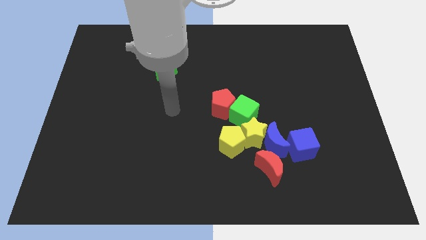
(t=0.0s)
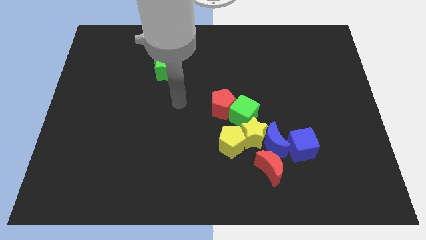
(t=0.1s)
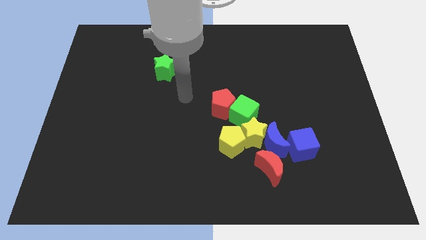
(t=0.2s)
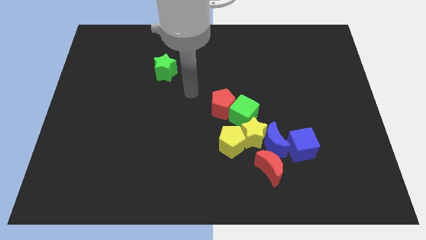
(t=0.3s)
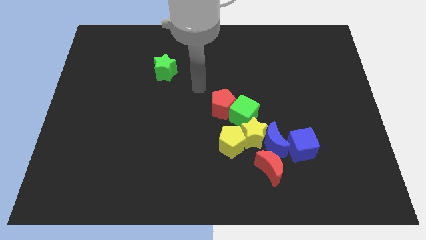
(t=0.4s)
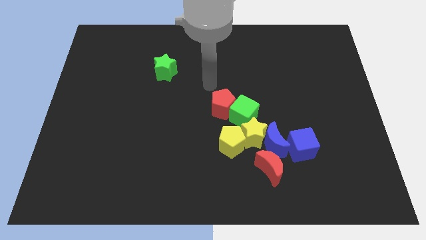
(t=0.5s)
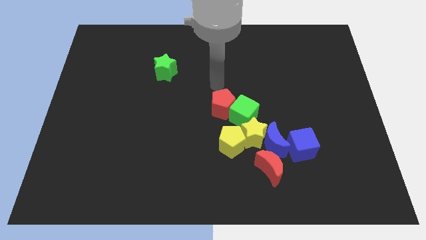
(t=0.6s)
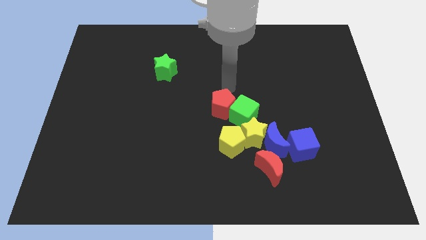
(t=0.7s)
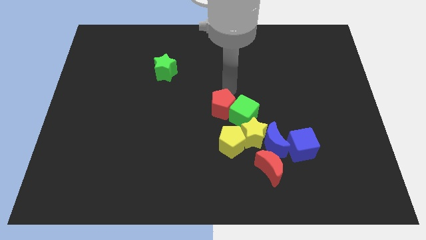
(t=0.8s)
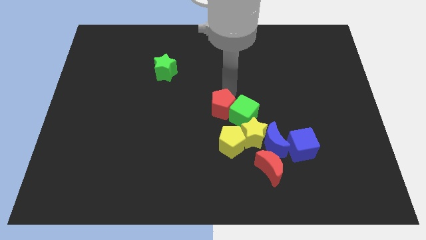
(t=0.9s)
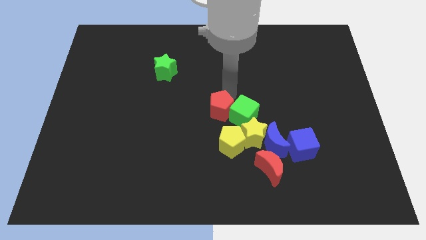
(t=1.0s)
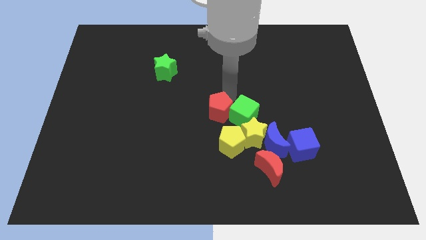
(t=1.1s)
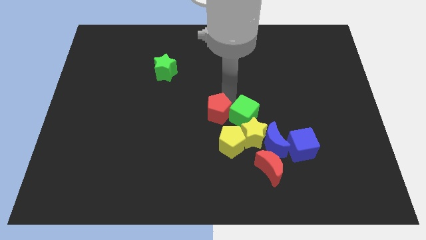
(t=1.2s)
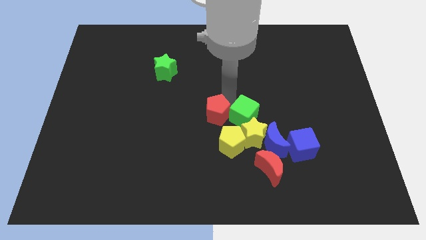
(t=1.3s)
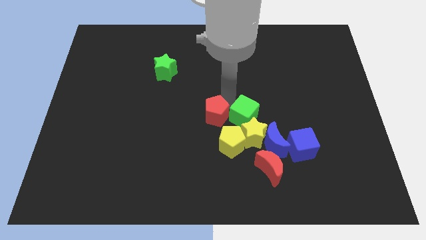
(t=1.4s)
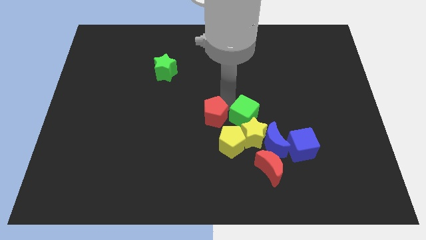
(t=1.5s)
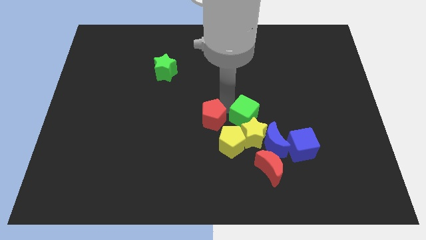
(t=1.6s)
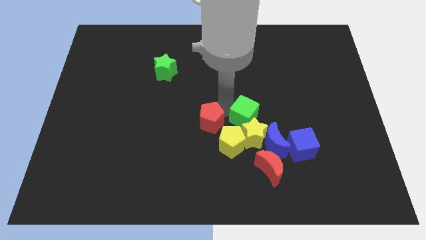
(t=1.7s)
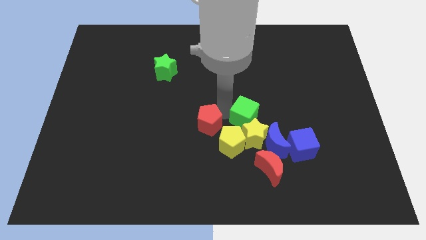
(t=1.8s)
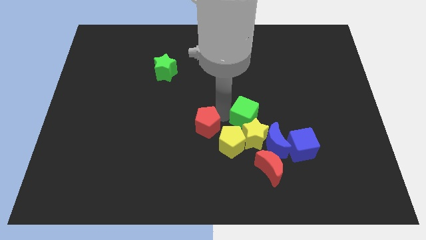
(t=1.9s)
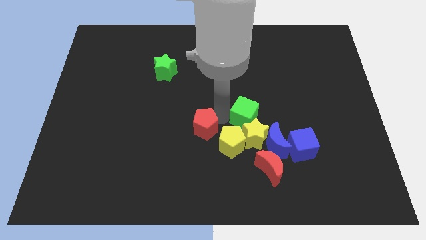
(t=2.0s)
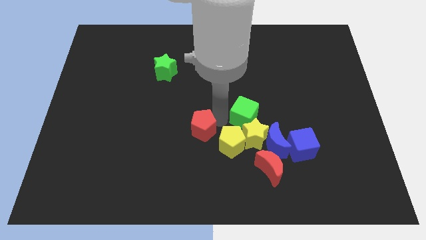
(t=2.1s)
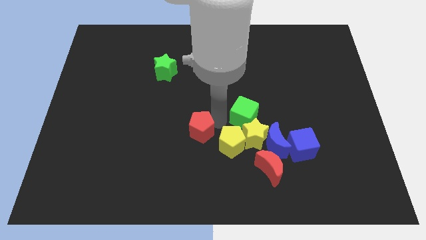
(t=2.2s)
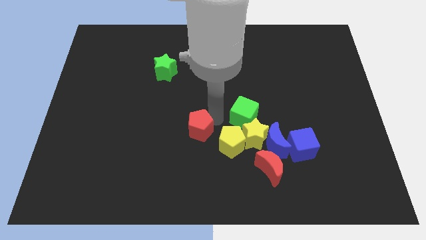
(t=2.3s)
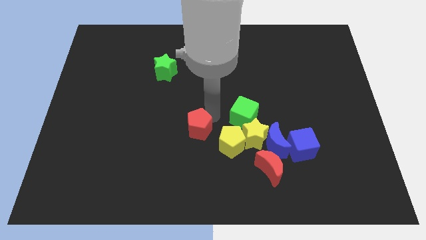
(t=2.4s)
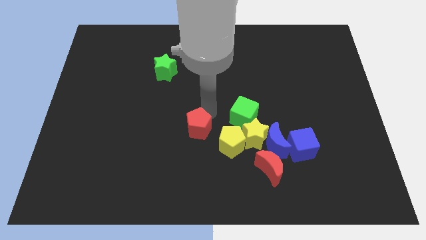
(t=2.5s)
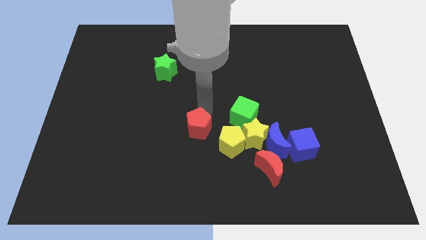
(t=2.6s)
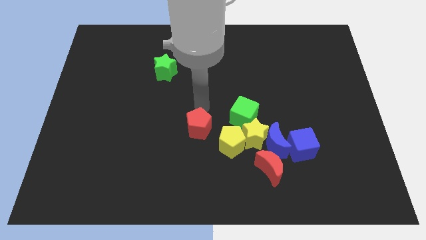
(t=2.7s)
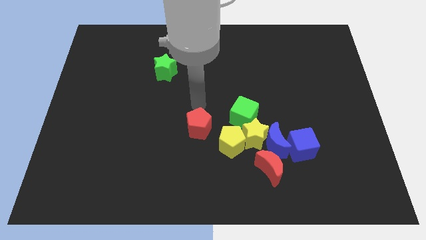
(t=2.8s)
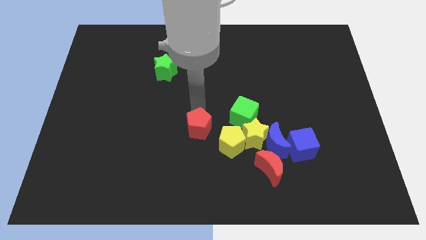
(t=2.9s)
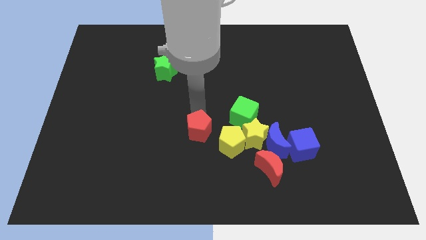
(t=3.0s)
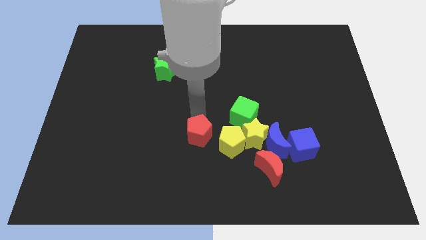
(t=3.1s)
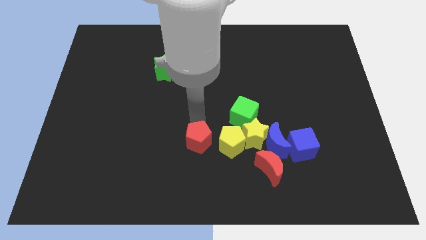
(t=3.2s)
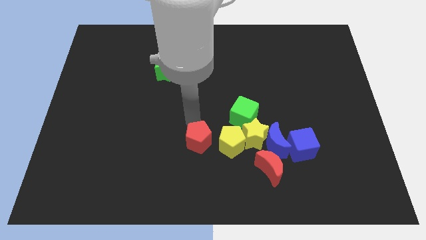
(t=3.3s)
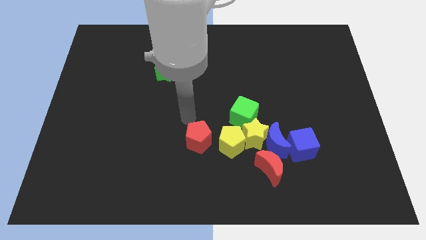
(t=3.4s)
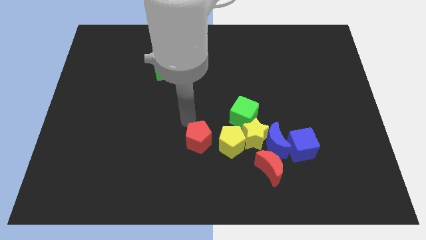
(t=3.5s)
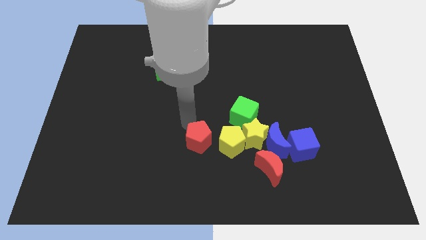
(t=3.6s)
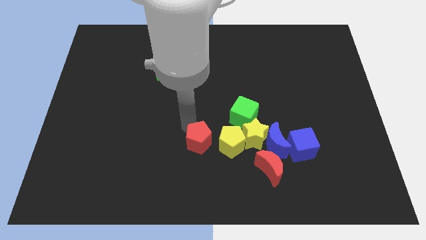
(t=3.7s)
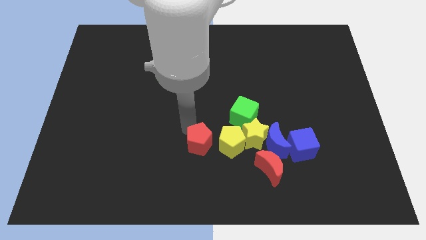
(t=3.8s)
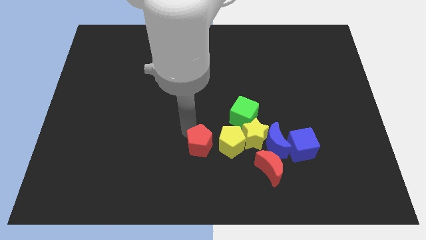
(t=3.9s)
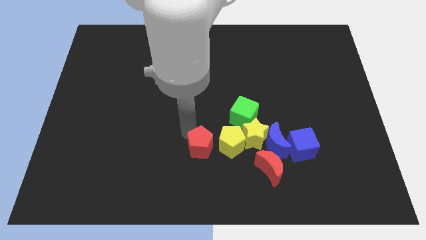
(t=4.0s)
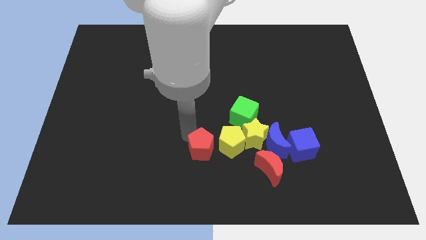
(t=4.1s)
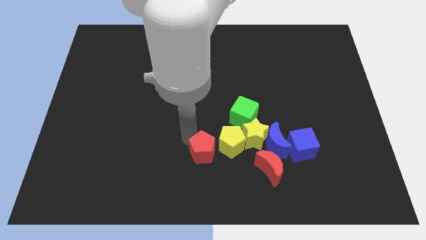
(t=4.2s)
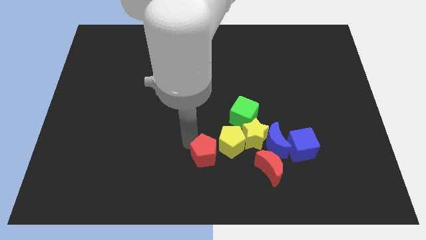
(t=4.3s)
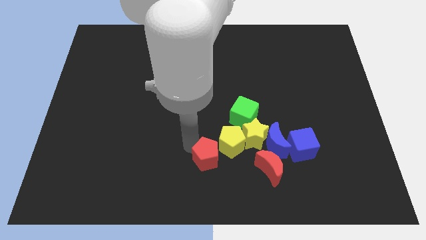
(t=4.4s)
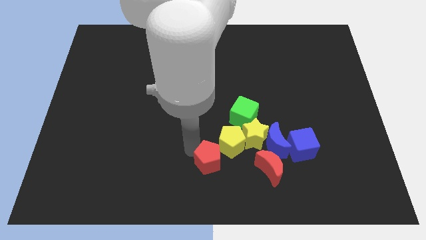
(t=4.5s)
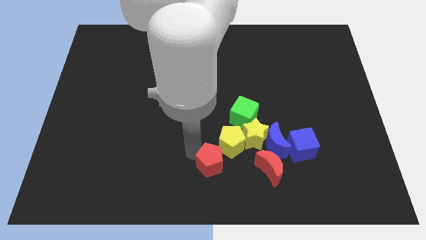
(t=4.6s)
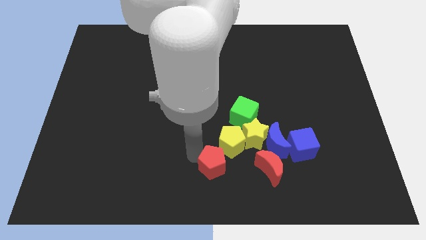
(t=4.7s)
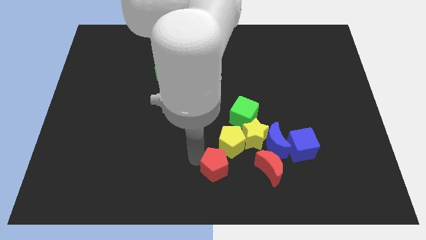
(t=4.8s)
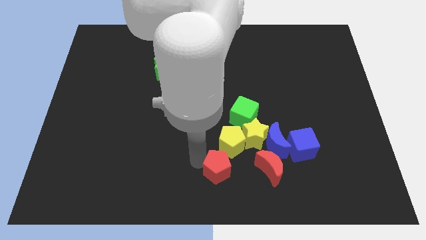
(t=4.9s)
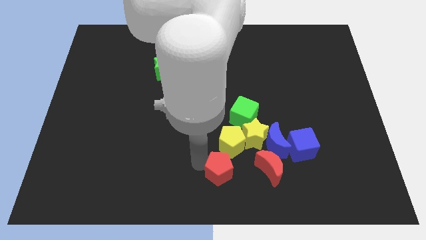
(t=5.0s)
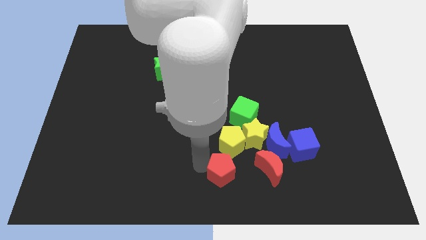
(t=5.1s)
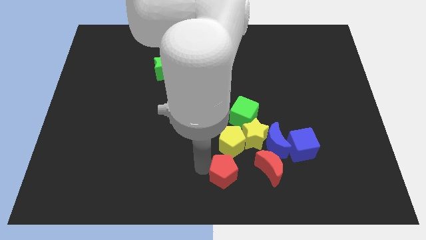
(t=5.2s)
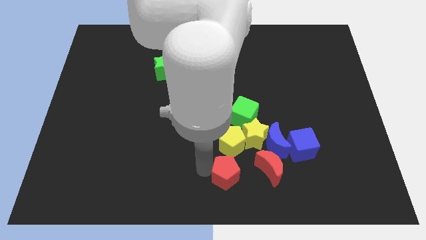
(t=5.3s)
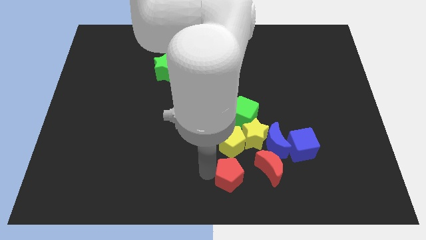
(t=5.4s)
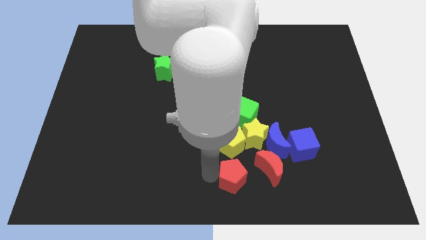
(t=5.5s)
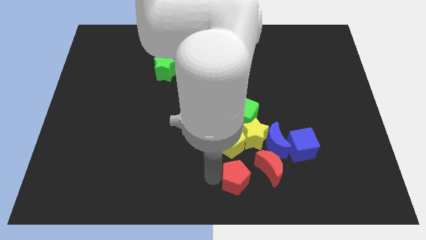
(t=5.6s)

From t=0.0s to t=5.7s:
move the red pentagon downwards and to the right a little bit

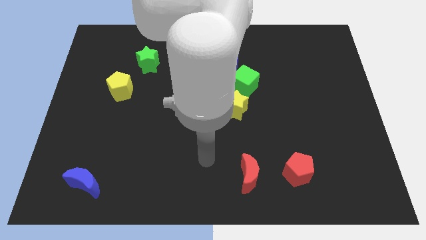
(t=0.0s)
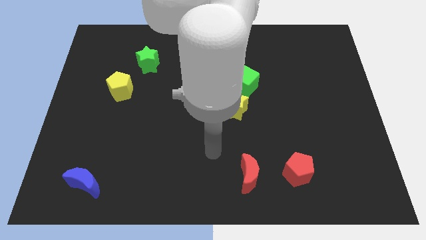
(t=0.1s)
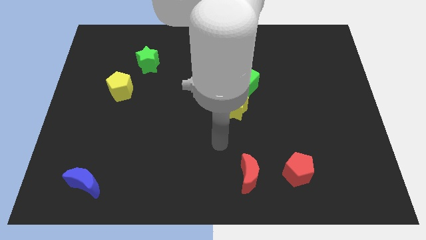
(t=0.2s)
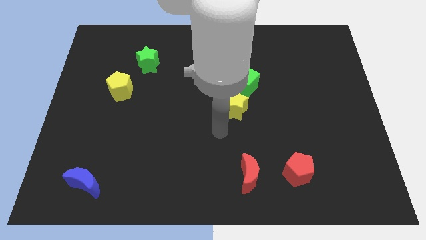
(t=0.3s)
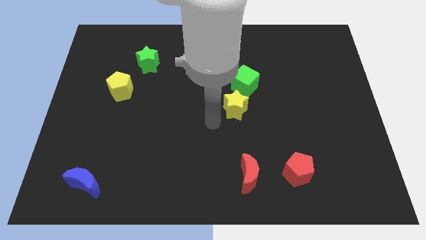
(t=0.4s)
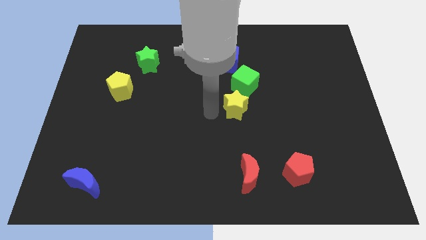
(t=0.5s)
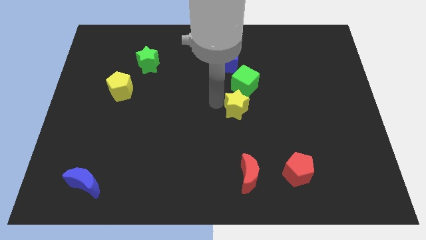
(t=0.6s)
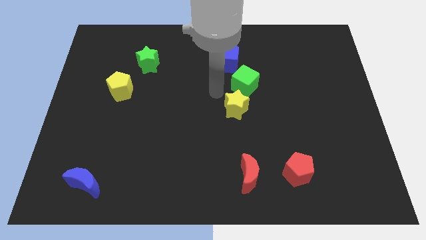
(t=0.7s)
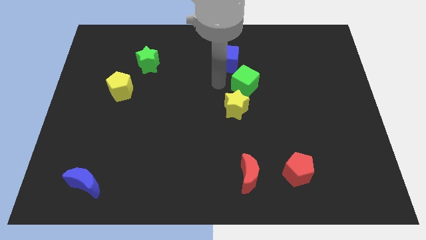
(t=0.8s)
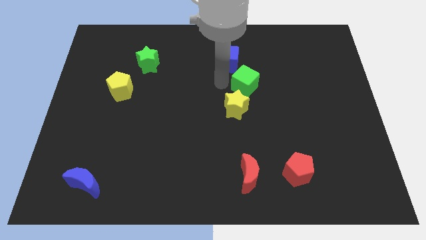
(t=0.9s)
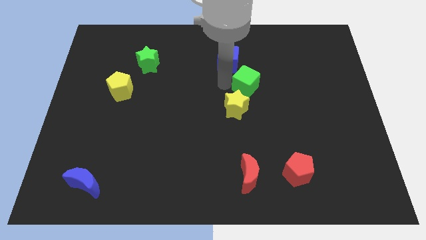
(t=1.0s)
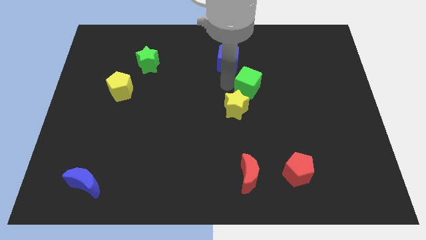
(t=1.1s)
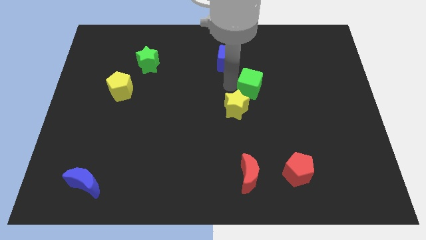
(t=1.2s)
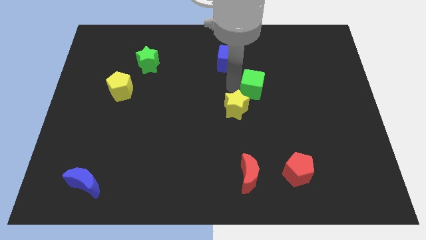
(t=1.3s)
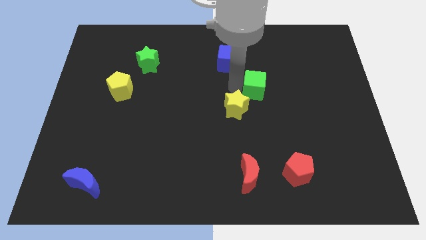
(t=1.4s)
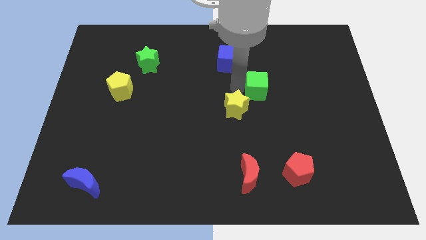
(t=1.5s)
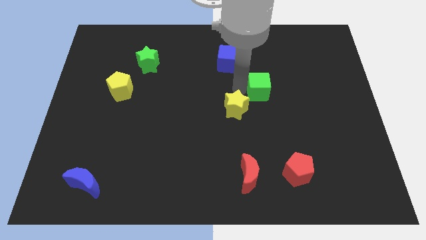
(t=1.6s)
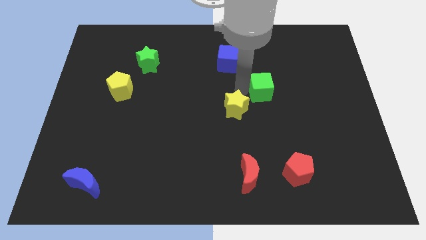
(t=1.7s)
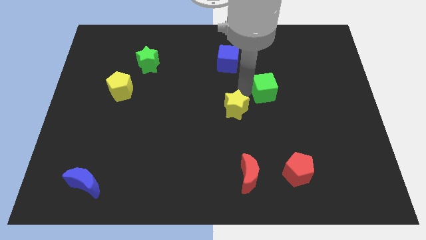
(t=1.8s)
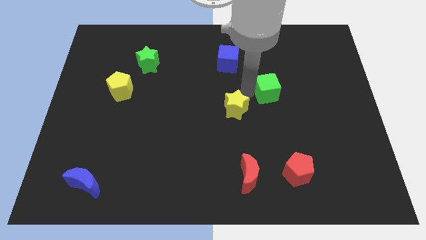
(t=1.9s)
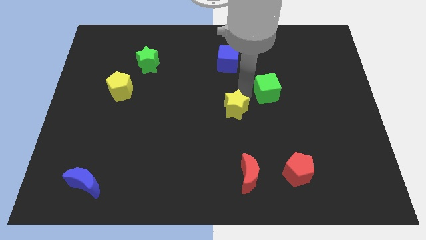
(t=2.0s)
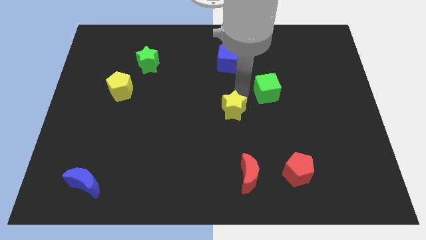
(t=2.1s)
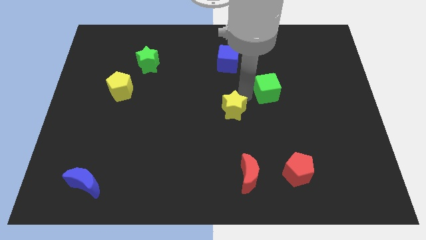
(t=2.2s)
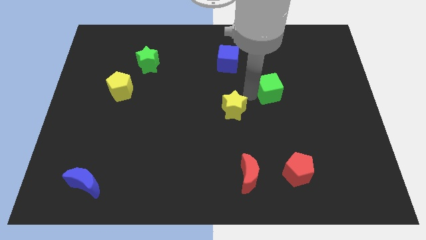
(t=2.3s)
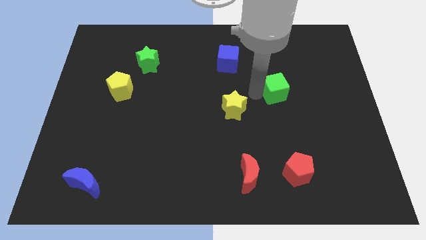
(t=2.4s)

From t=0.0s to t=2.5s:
slide the green cube a little right
